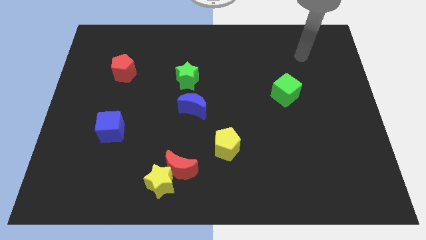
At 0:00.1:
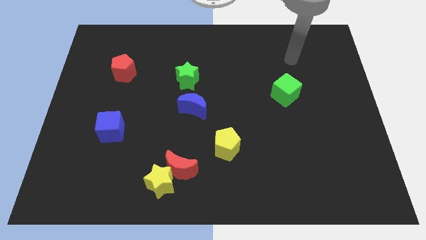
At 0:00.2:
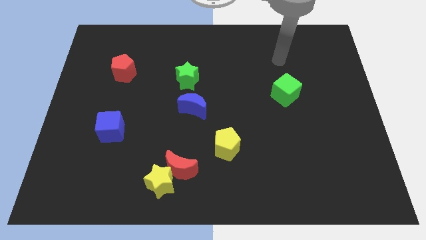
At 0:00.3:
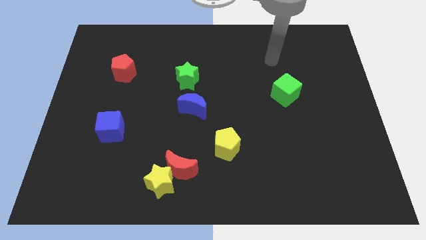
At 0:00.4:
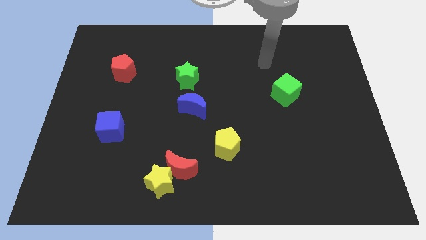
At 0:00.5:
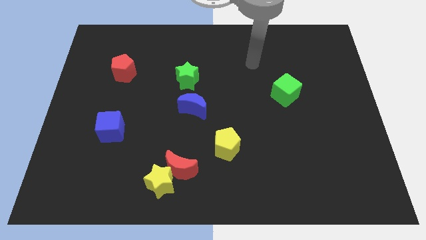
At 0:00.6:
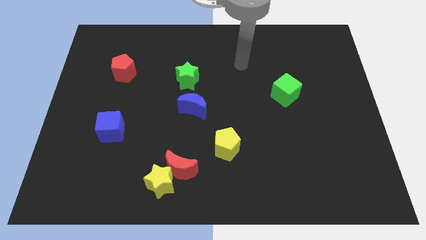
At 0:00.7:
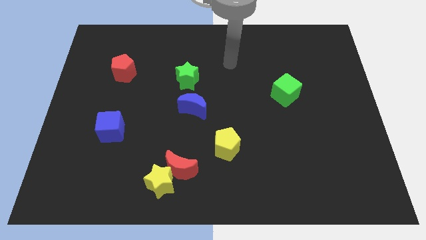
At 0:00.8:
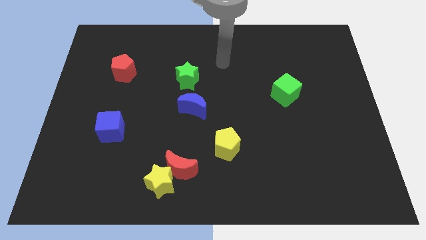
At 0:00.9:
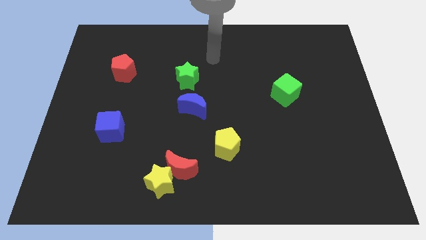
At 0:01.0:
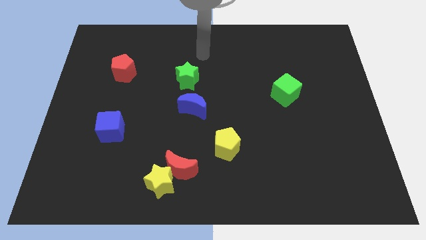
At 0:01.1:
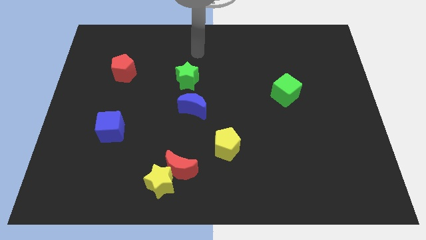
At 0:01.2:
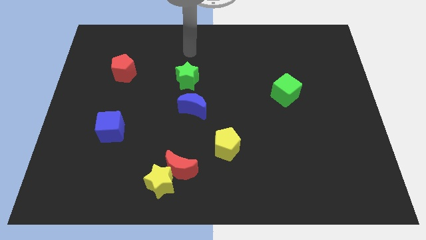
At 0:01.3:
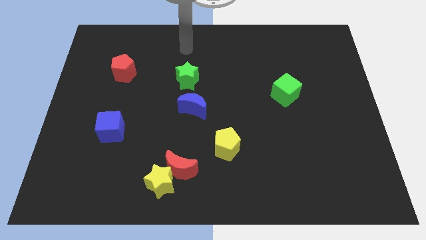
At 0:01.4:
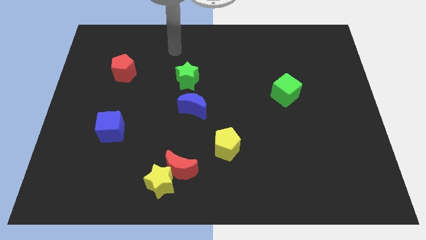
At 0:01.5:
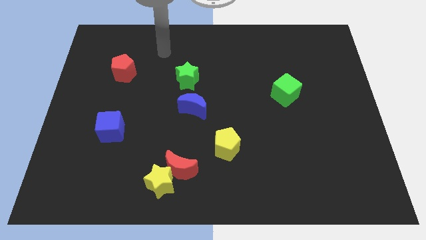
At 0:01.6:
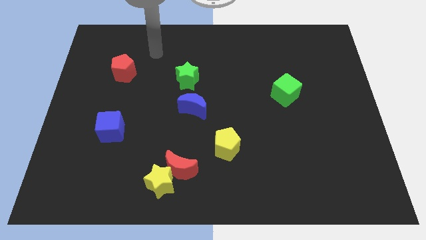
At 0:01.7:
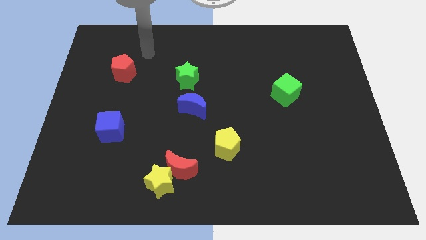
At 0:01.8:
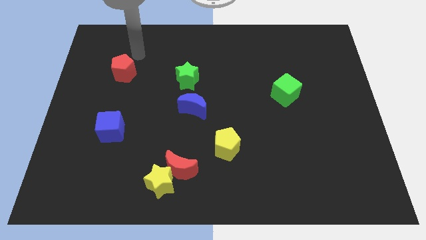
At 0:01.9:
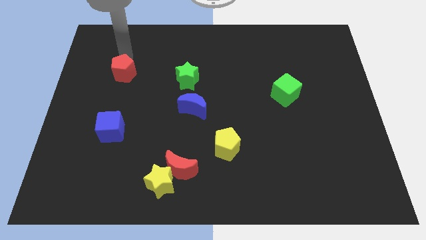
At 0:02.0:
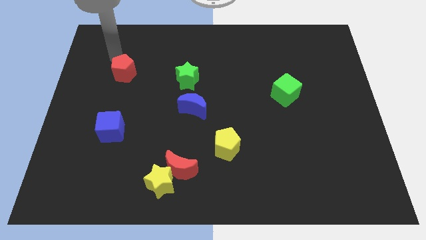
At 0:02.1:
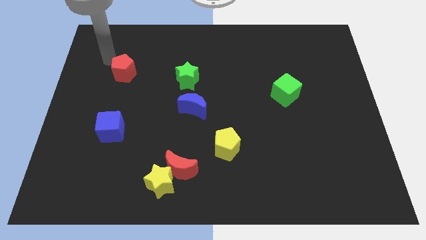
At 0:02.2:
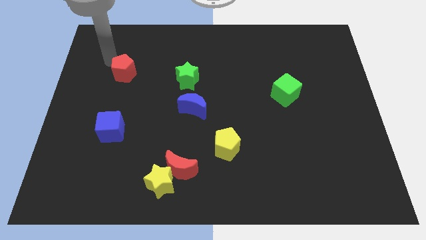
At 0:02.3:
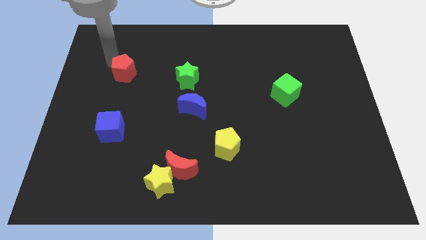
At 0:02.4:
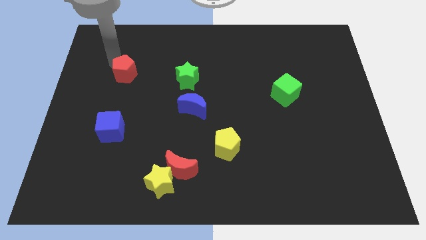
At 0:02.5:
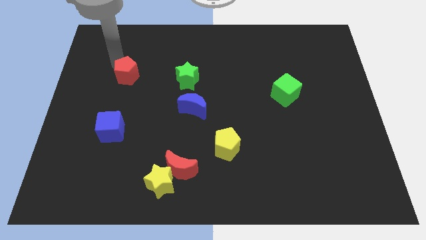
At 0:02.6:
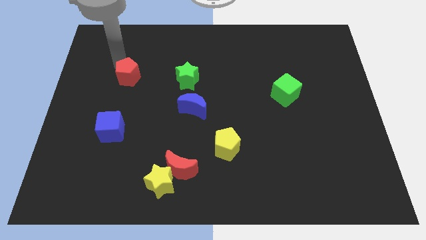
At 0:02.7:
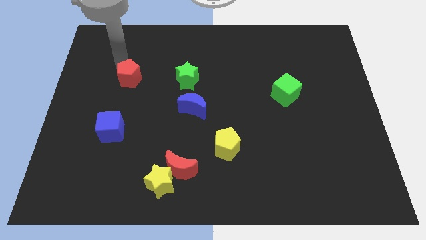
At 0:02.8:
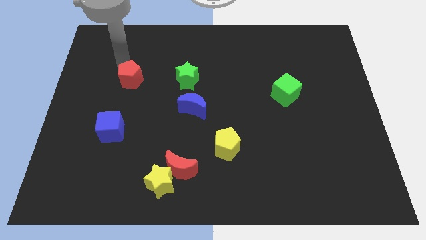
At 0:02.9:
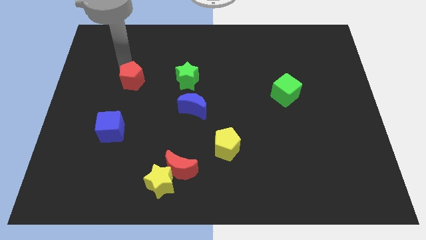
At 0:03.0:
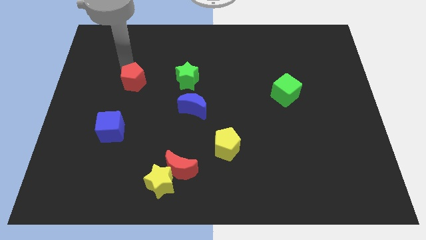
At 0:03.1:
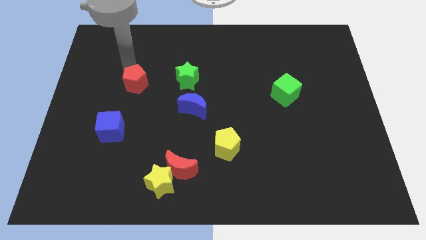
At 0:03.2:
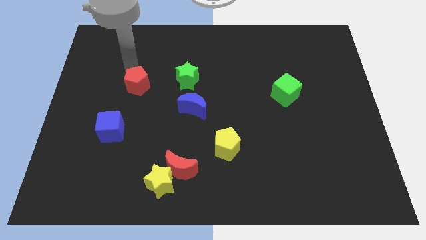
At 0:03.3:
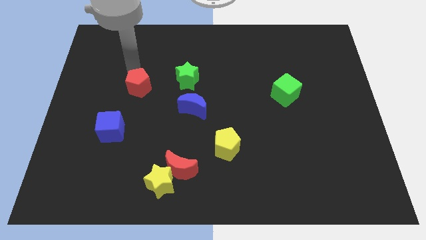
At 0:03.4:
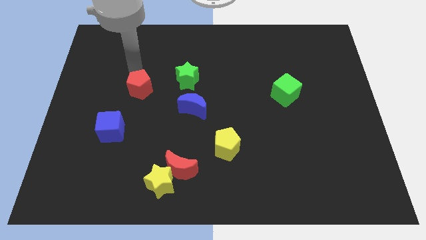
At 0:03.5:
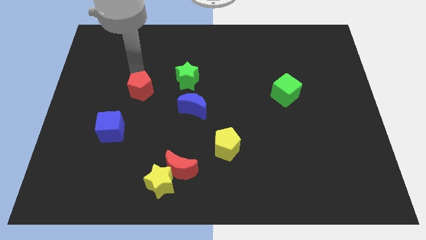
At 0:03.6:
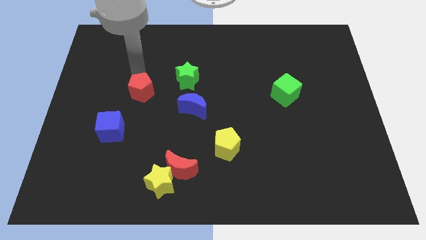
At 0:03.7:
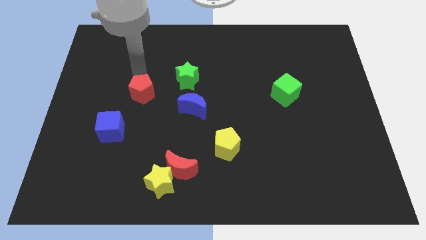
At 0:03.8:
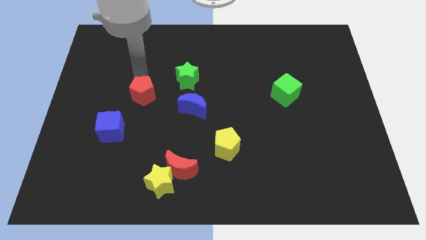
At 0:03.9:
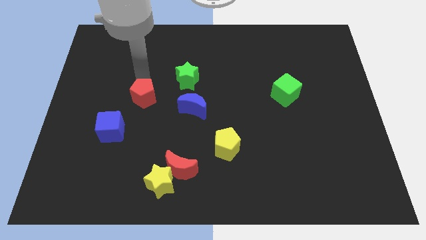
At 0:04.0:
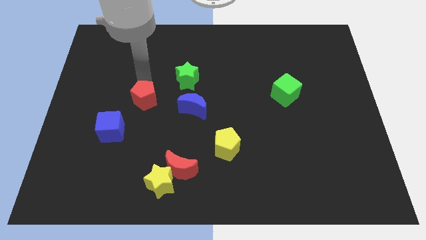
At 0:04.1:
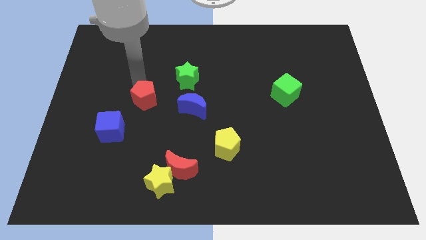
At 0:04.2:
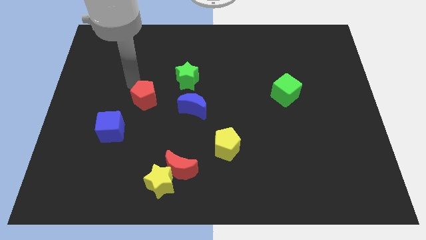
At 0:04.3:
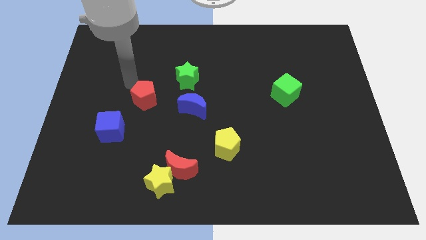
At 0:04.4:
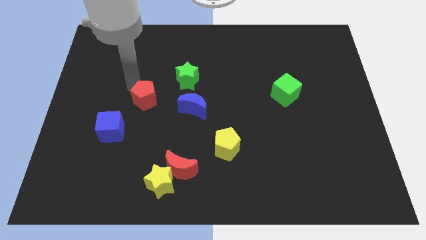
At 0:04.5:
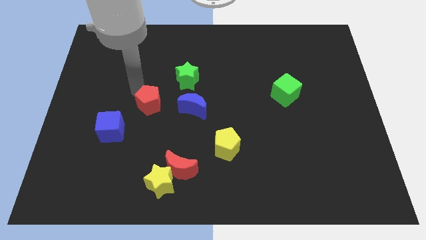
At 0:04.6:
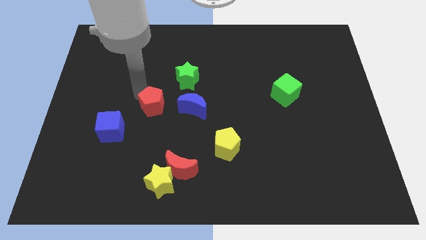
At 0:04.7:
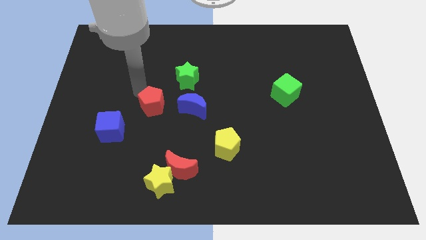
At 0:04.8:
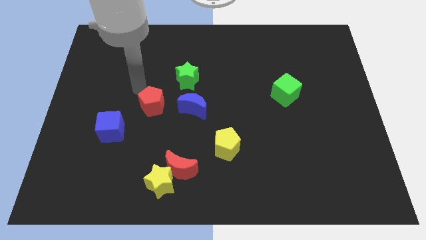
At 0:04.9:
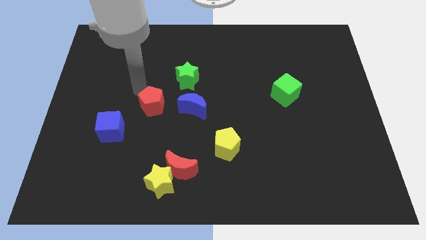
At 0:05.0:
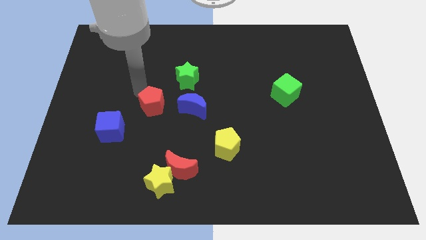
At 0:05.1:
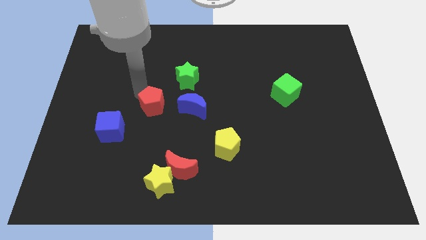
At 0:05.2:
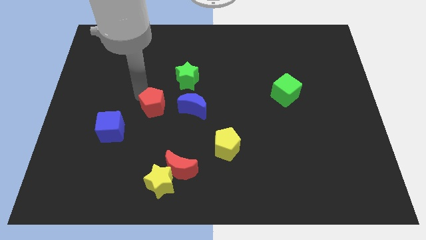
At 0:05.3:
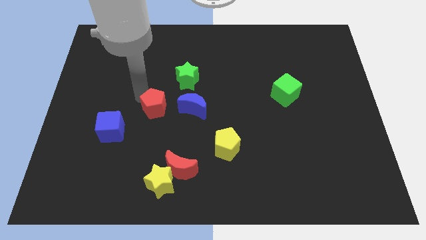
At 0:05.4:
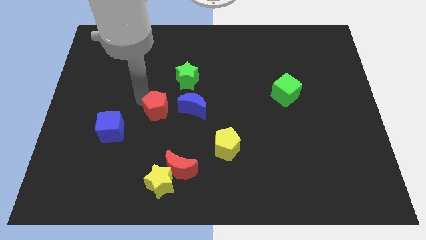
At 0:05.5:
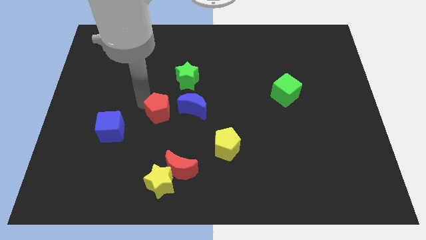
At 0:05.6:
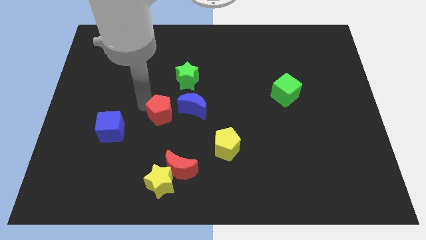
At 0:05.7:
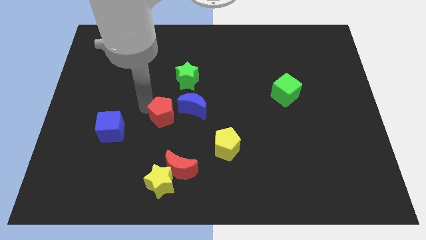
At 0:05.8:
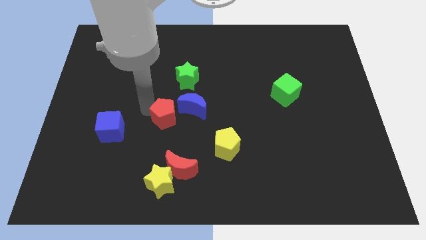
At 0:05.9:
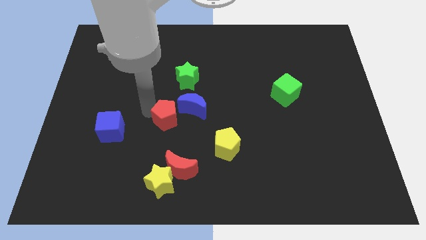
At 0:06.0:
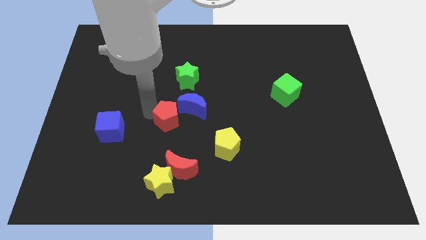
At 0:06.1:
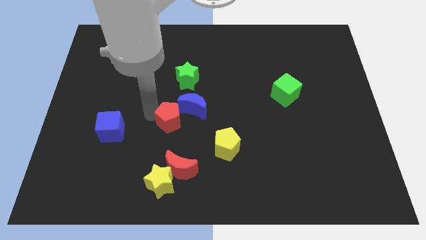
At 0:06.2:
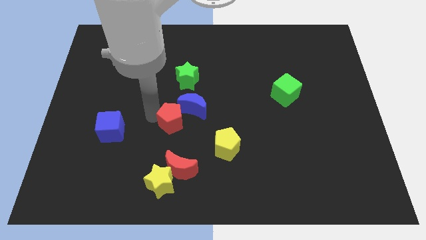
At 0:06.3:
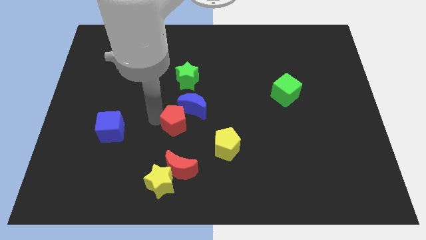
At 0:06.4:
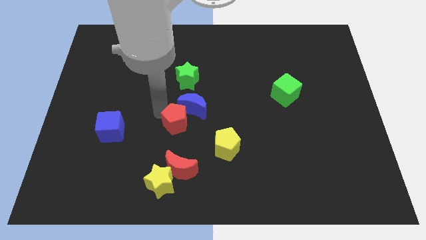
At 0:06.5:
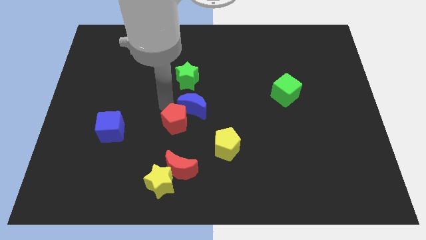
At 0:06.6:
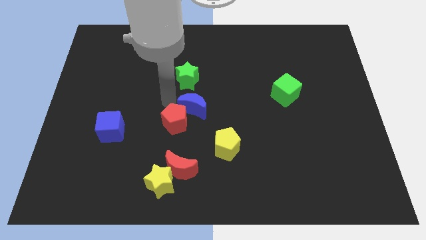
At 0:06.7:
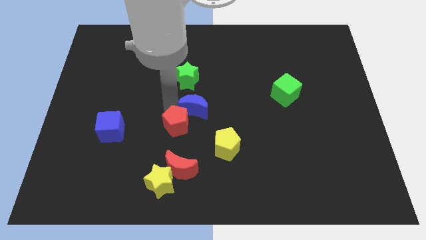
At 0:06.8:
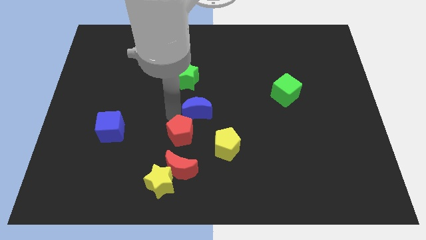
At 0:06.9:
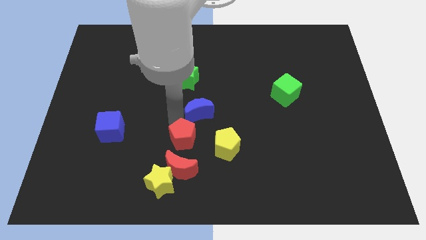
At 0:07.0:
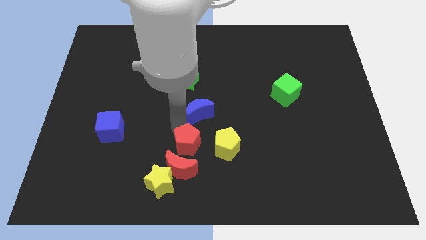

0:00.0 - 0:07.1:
move the red pentagon to the top right of the yellow star
